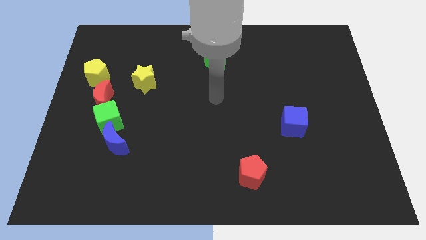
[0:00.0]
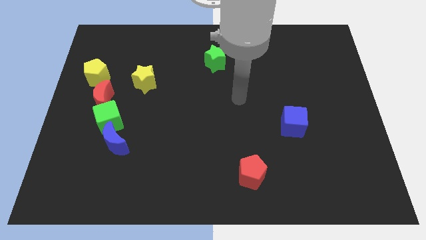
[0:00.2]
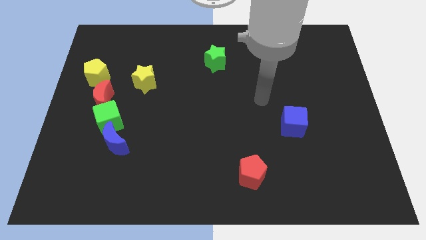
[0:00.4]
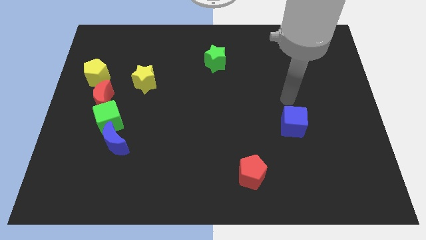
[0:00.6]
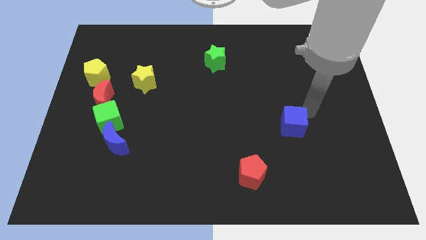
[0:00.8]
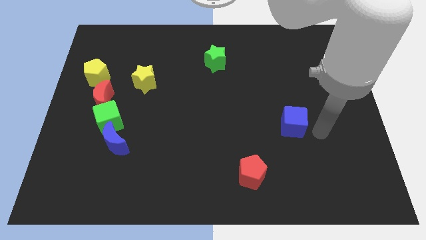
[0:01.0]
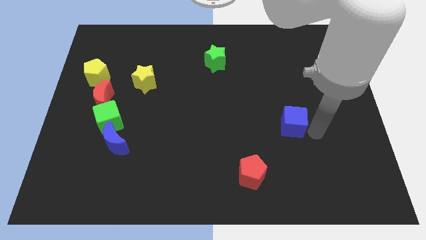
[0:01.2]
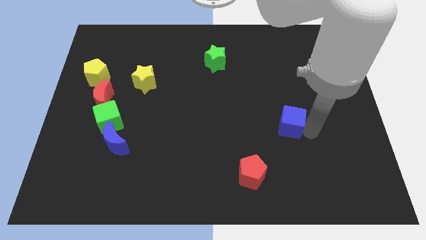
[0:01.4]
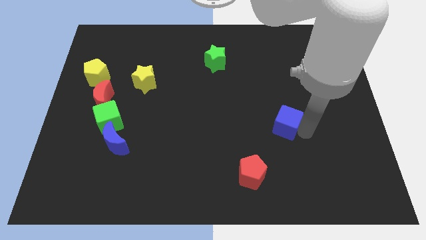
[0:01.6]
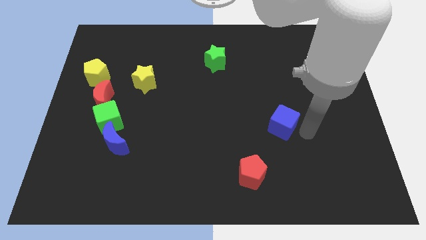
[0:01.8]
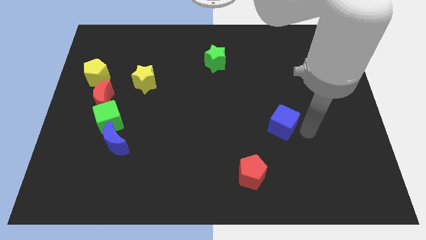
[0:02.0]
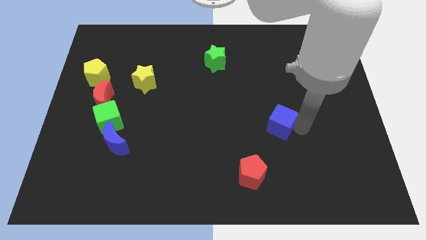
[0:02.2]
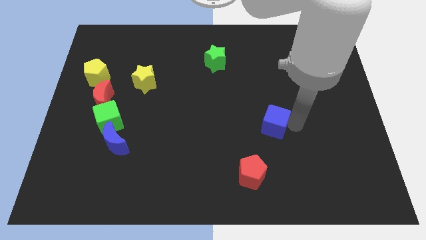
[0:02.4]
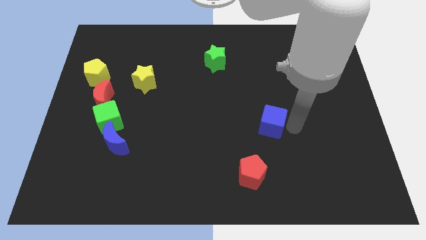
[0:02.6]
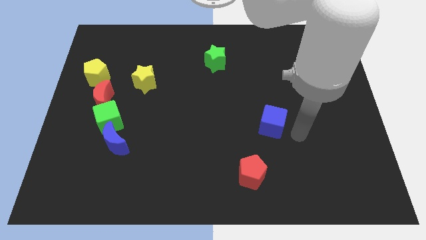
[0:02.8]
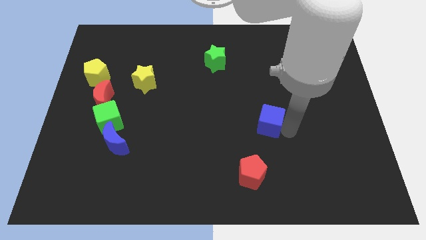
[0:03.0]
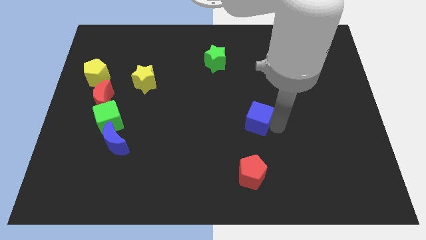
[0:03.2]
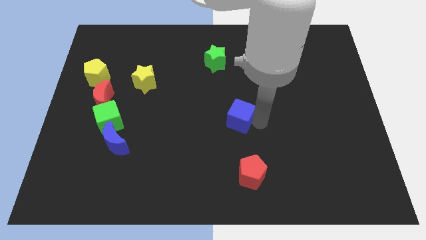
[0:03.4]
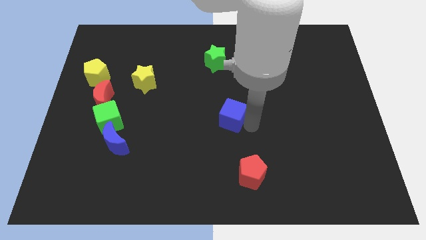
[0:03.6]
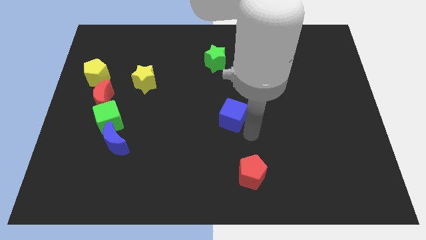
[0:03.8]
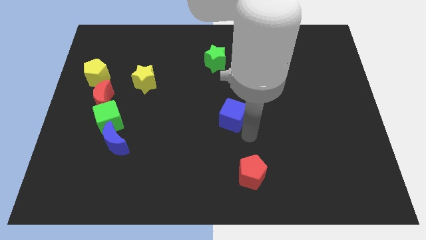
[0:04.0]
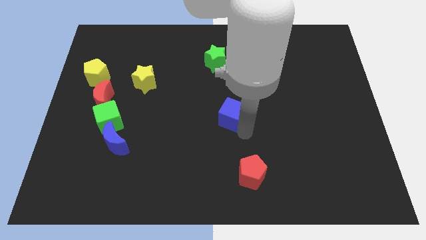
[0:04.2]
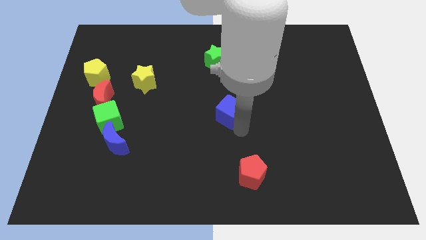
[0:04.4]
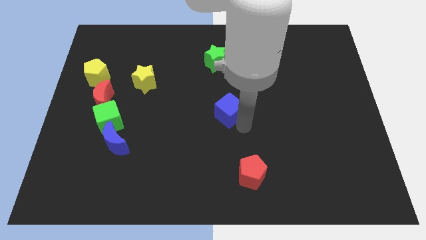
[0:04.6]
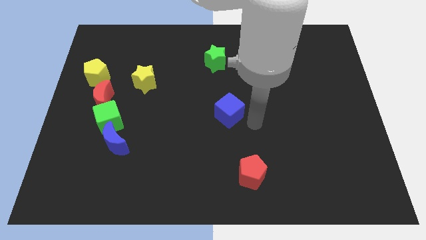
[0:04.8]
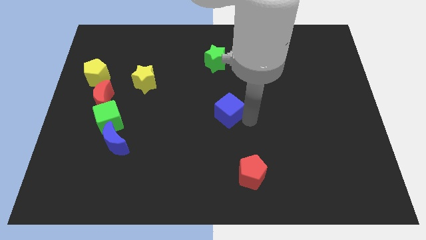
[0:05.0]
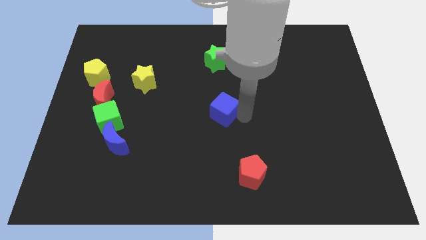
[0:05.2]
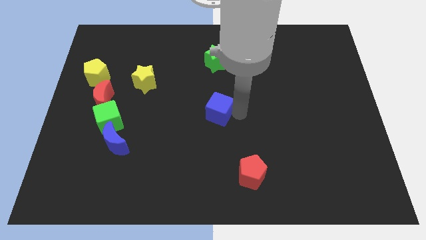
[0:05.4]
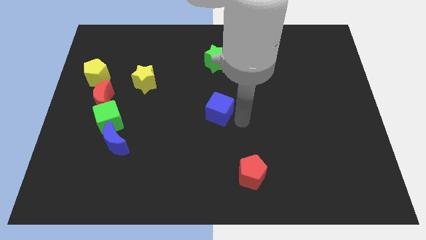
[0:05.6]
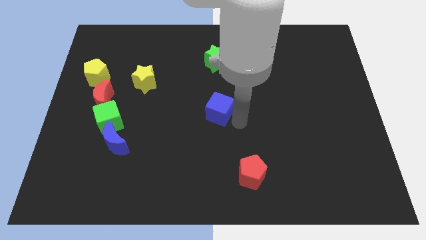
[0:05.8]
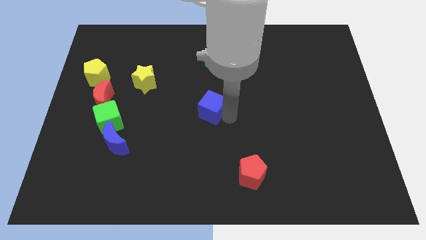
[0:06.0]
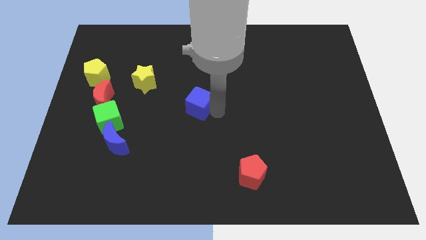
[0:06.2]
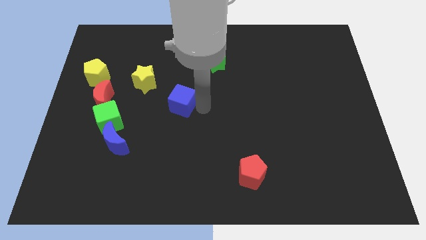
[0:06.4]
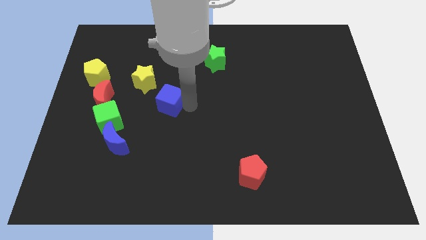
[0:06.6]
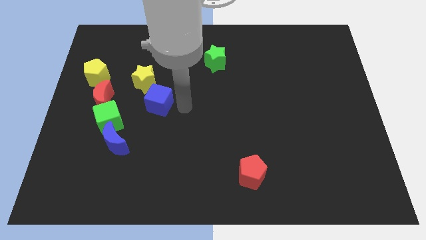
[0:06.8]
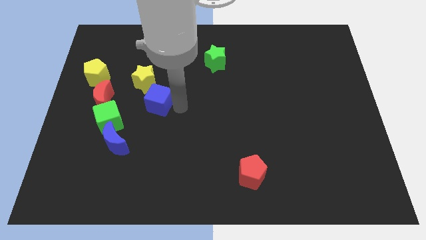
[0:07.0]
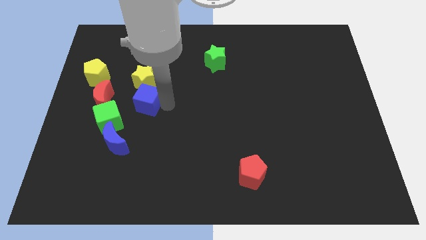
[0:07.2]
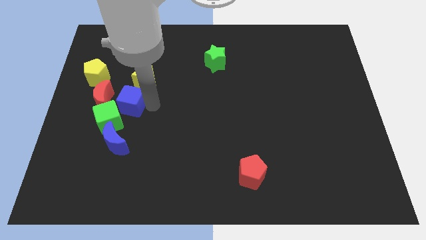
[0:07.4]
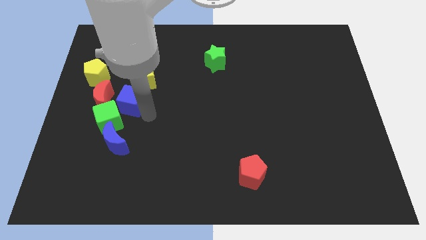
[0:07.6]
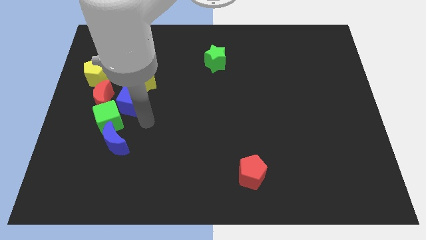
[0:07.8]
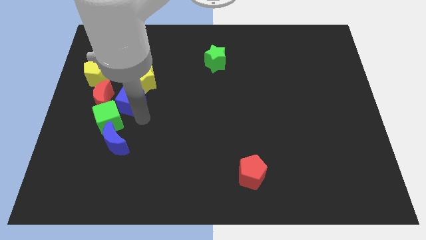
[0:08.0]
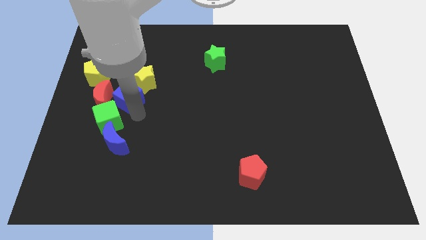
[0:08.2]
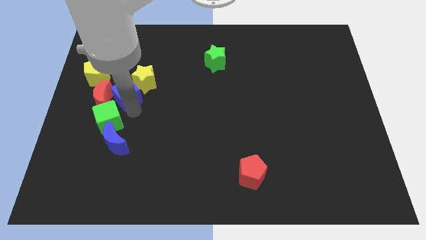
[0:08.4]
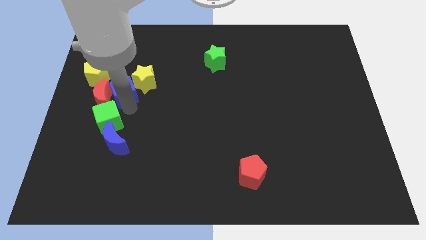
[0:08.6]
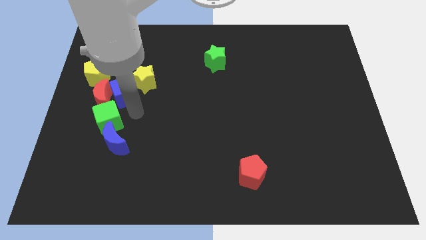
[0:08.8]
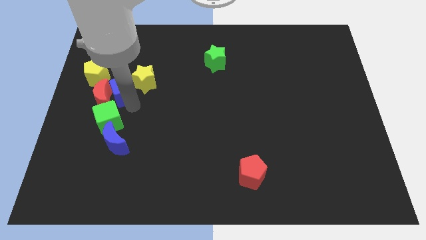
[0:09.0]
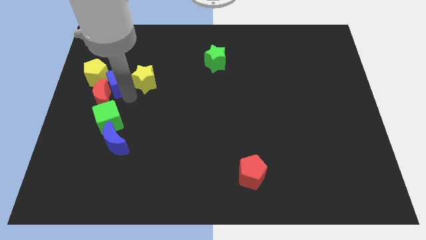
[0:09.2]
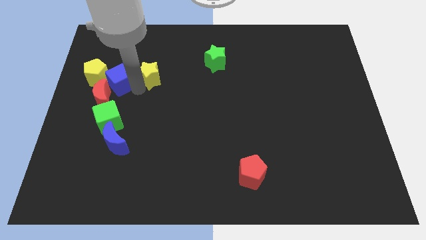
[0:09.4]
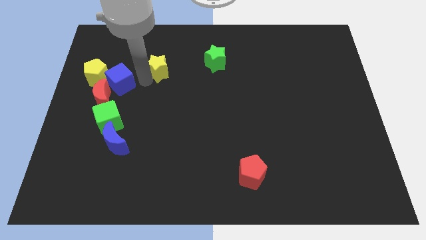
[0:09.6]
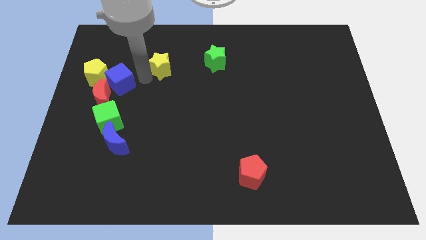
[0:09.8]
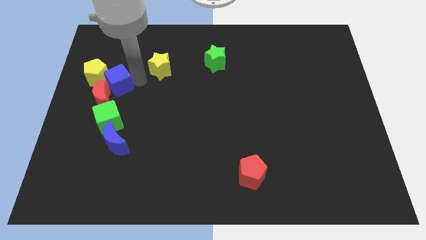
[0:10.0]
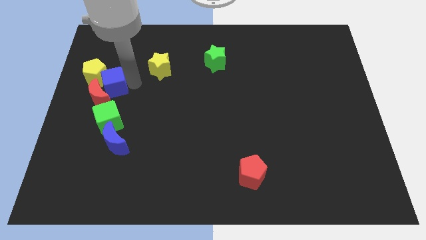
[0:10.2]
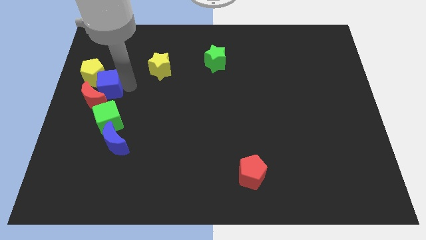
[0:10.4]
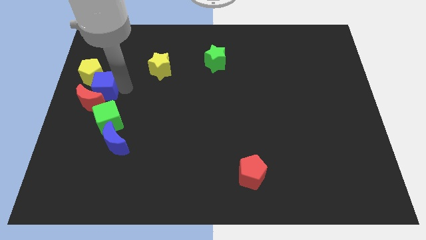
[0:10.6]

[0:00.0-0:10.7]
slide the blue cube to the top left side of the green cube

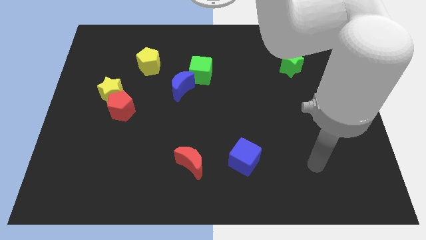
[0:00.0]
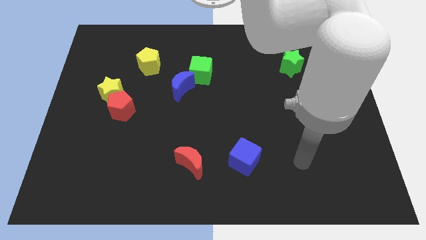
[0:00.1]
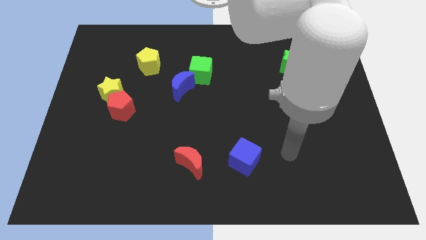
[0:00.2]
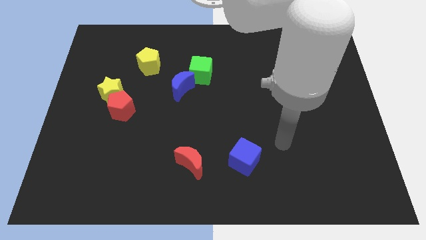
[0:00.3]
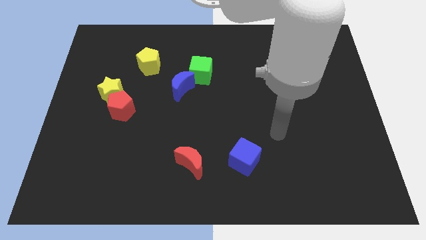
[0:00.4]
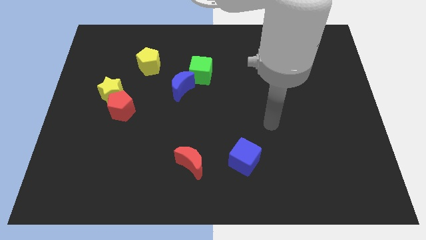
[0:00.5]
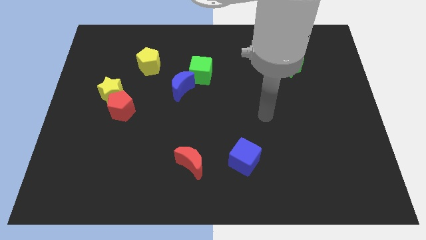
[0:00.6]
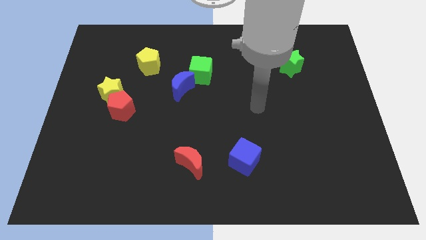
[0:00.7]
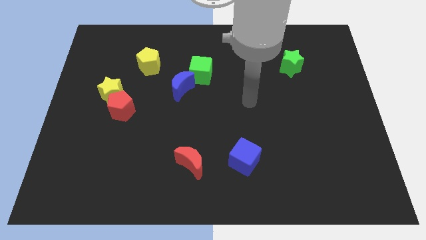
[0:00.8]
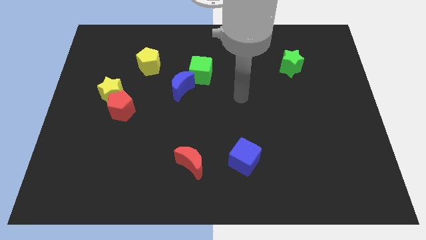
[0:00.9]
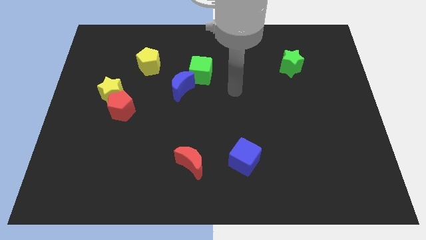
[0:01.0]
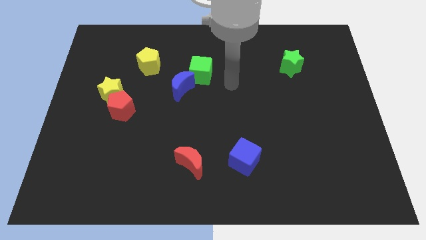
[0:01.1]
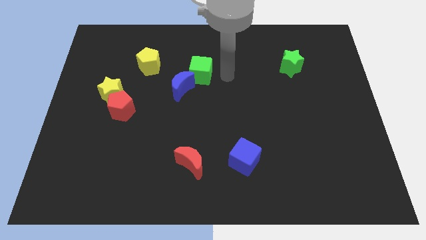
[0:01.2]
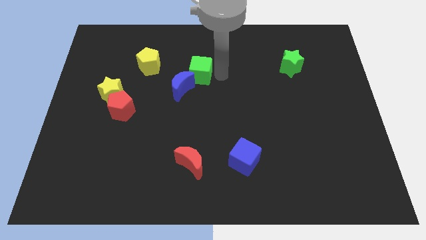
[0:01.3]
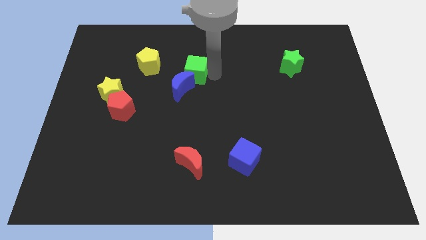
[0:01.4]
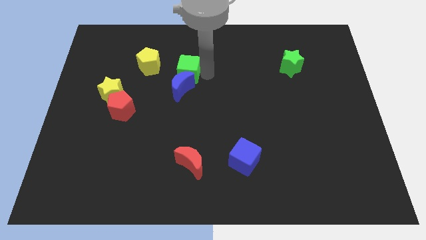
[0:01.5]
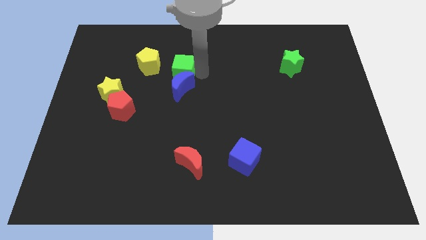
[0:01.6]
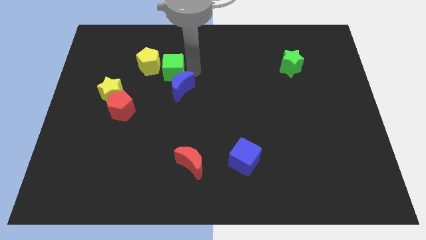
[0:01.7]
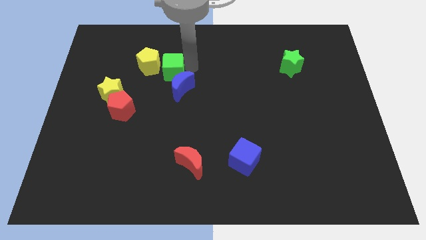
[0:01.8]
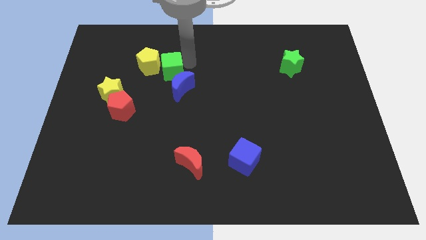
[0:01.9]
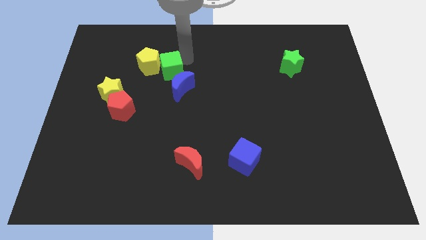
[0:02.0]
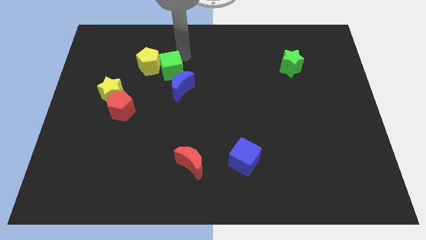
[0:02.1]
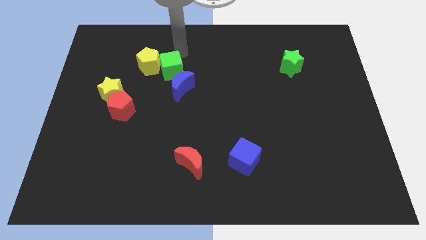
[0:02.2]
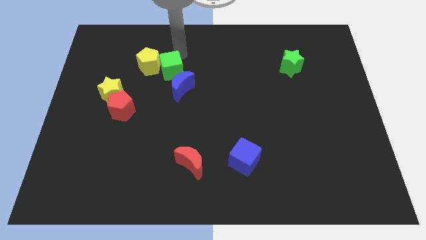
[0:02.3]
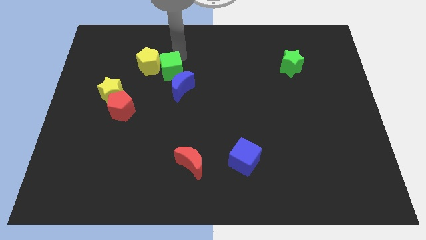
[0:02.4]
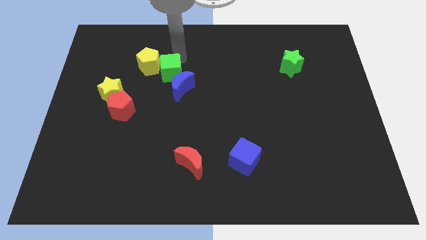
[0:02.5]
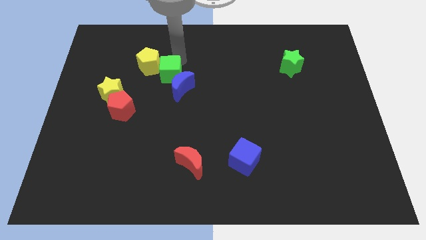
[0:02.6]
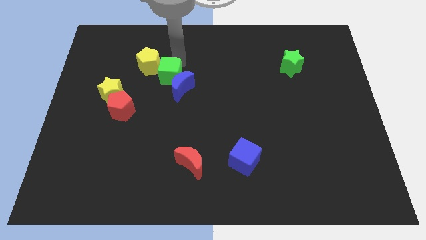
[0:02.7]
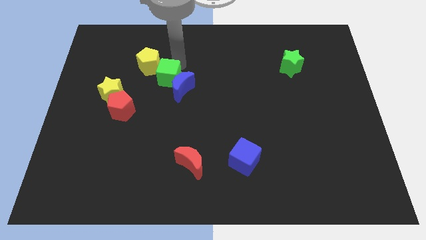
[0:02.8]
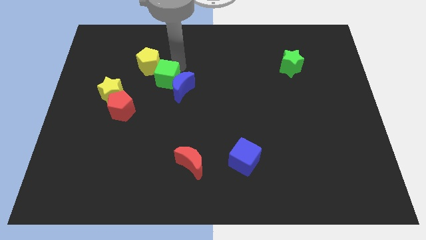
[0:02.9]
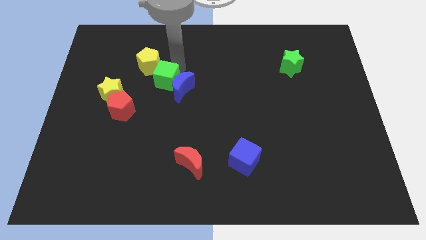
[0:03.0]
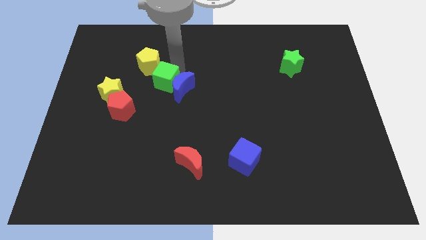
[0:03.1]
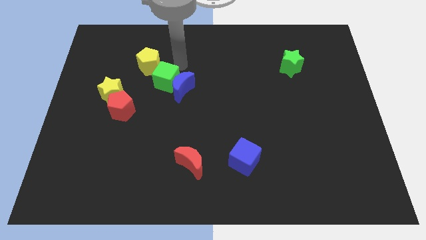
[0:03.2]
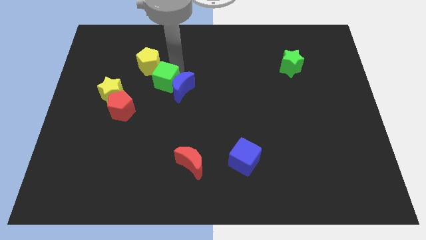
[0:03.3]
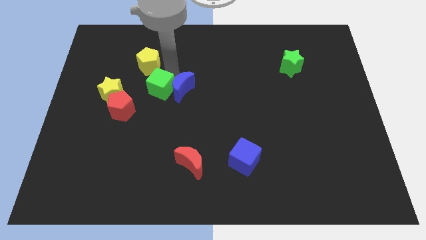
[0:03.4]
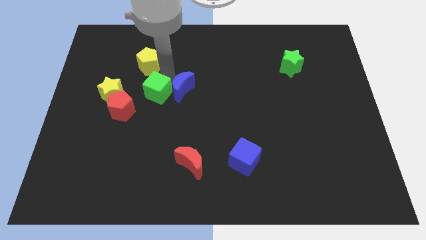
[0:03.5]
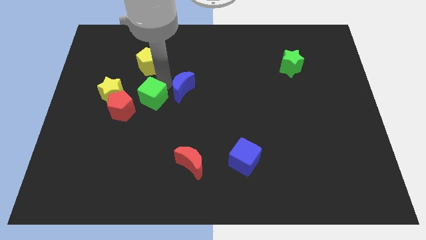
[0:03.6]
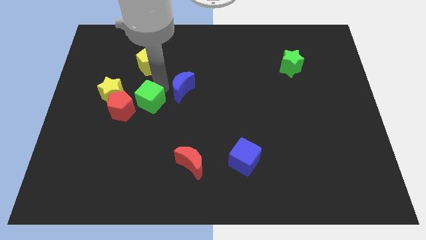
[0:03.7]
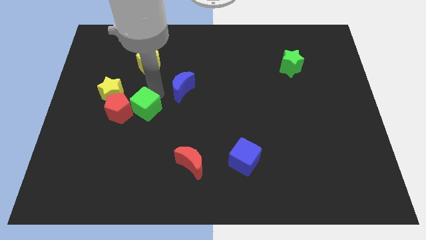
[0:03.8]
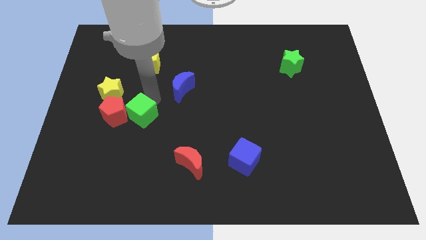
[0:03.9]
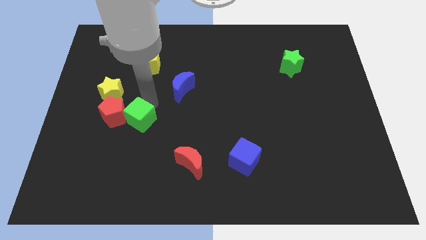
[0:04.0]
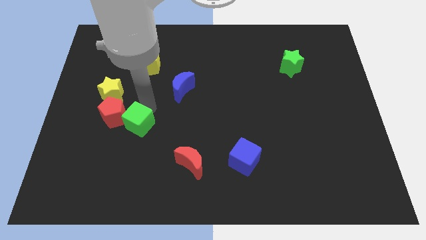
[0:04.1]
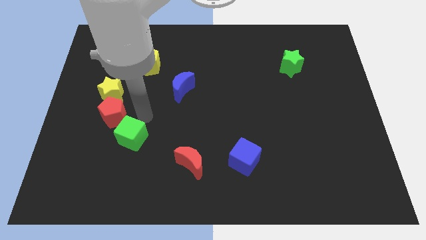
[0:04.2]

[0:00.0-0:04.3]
put the green cube to the bottom side of the red pentagon
